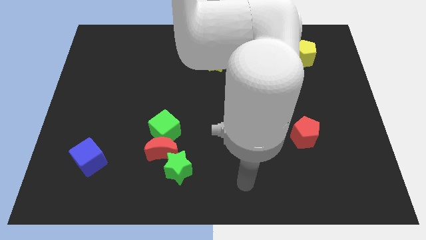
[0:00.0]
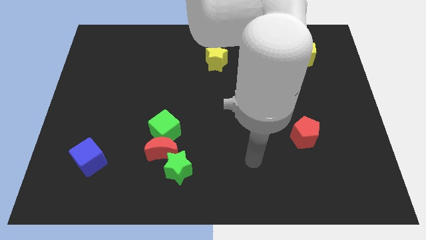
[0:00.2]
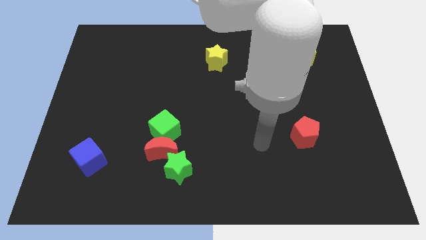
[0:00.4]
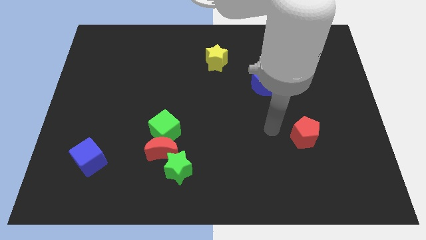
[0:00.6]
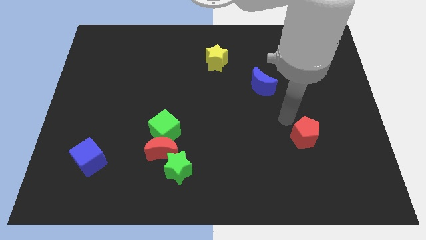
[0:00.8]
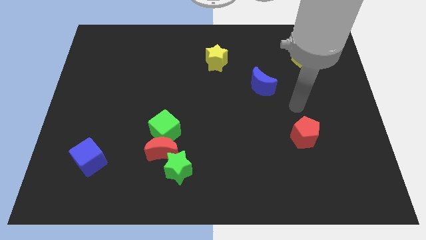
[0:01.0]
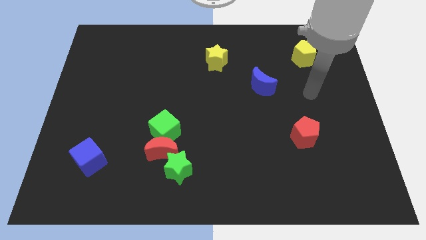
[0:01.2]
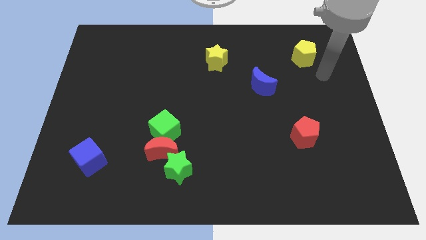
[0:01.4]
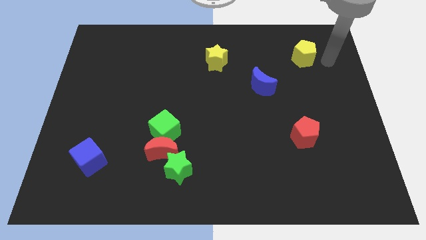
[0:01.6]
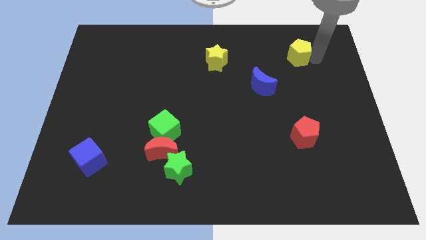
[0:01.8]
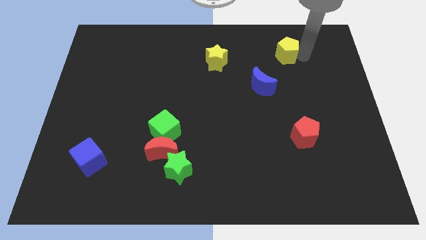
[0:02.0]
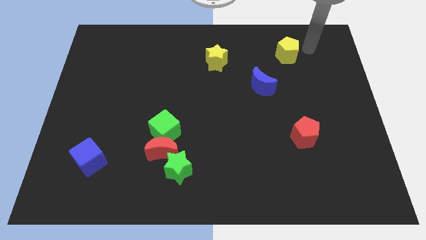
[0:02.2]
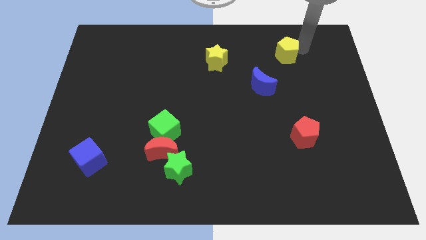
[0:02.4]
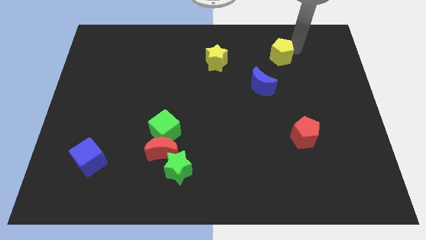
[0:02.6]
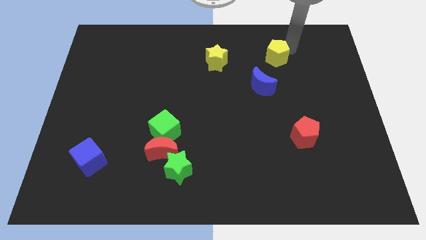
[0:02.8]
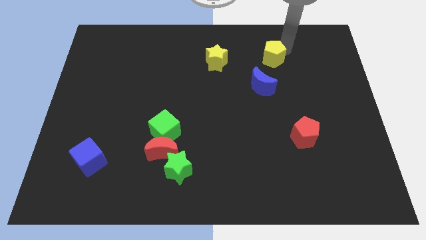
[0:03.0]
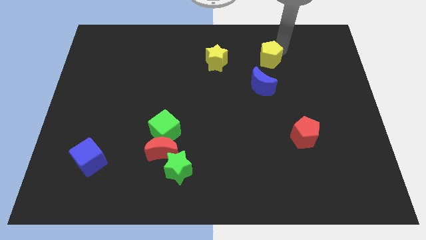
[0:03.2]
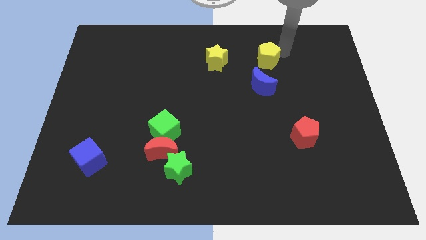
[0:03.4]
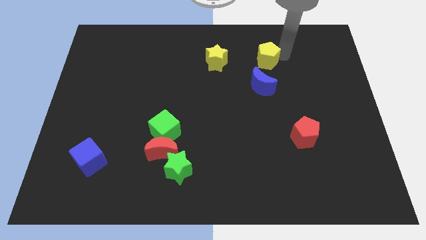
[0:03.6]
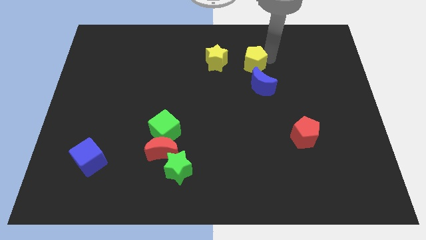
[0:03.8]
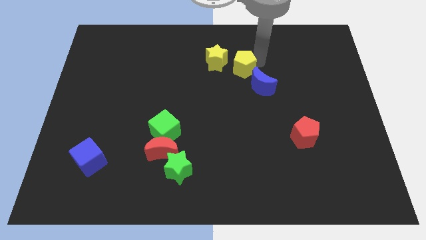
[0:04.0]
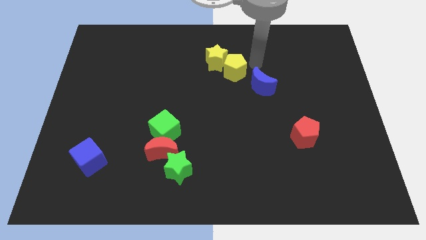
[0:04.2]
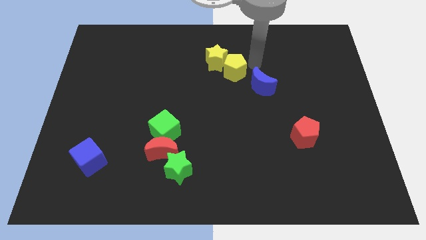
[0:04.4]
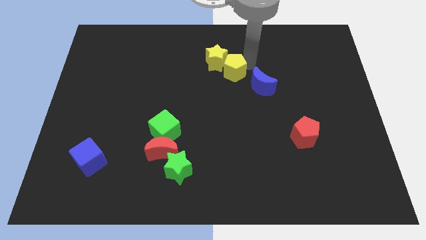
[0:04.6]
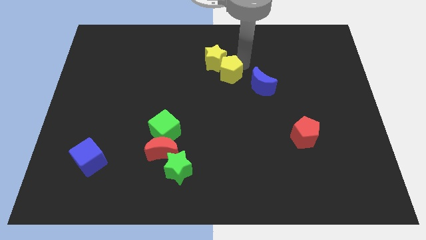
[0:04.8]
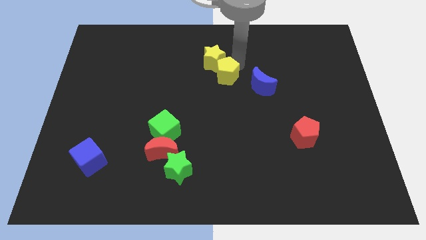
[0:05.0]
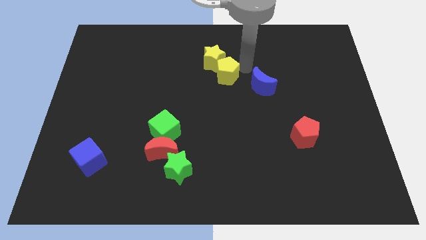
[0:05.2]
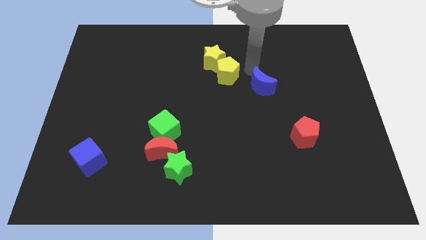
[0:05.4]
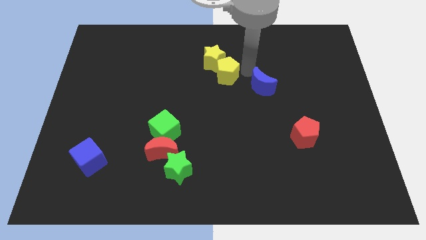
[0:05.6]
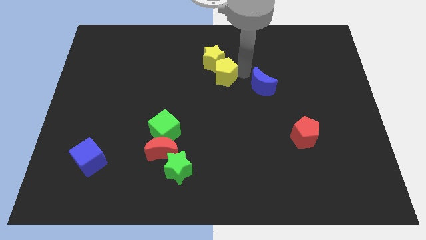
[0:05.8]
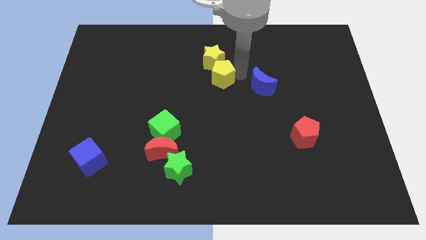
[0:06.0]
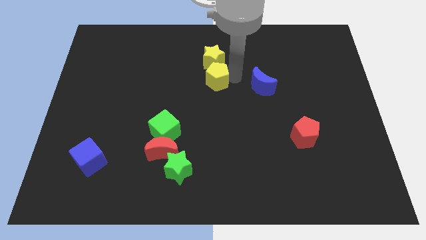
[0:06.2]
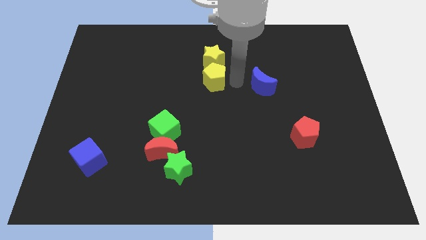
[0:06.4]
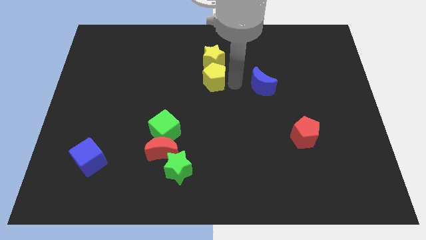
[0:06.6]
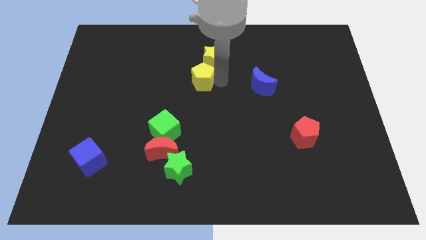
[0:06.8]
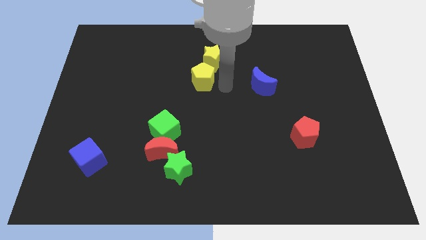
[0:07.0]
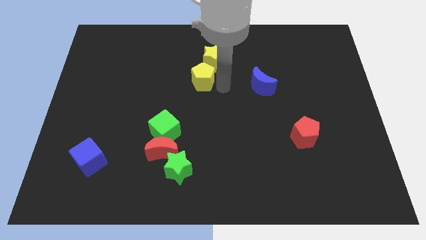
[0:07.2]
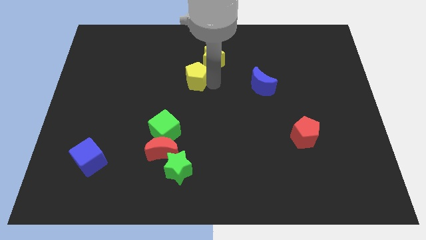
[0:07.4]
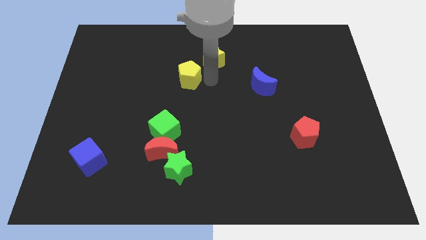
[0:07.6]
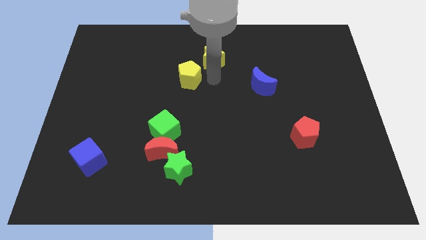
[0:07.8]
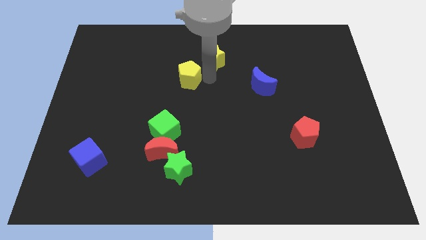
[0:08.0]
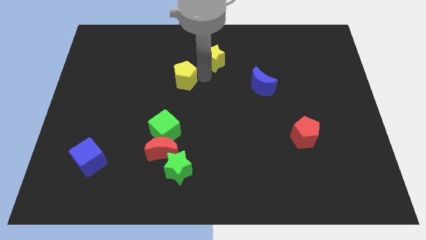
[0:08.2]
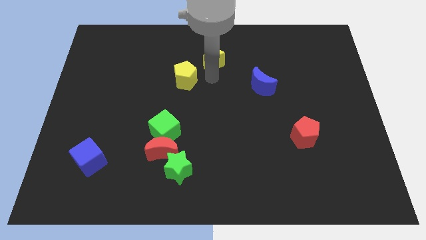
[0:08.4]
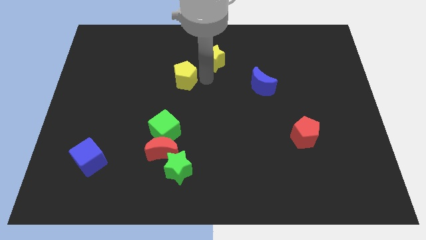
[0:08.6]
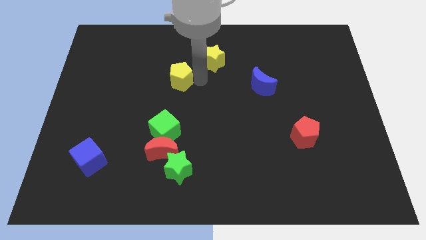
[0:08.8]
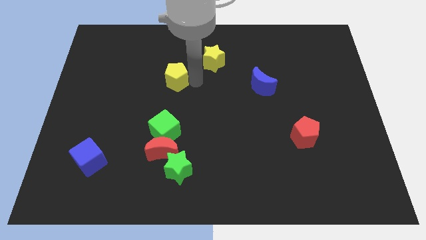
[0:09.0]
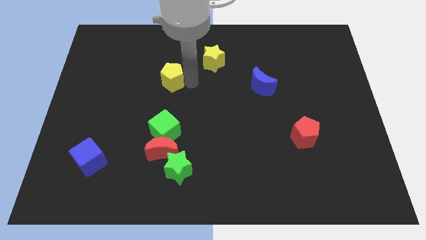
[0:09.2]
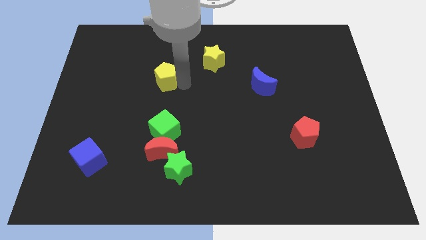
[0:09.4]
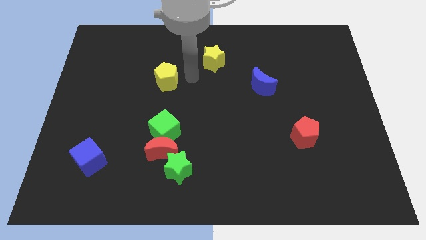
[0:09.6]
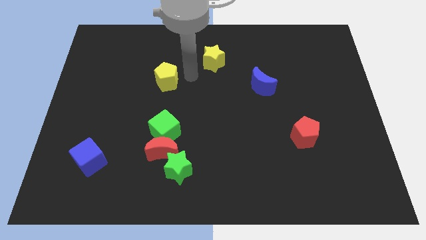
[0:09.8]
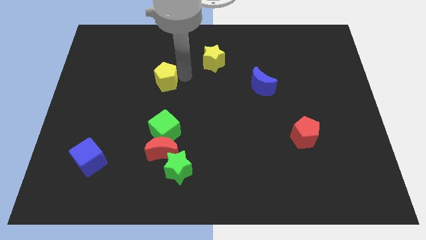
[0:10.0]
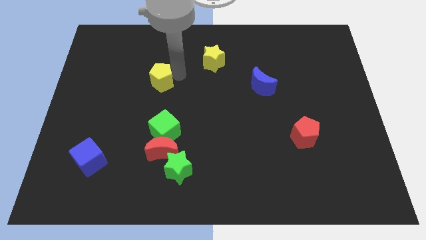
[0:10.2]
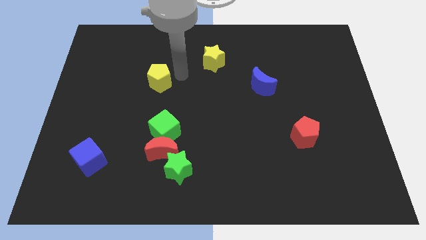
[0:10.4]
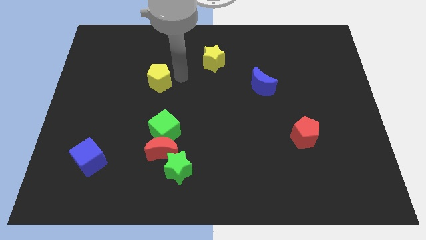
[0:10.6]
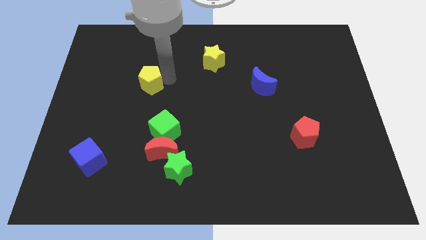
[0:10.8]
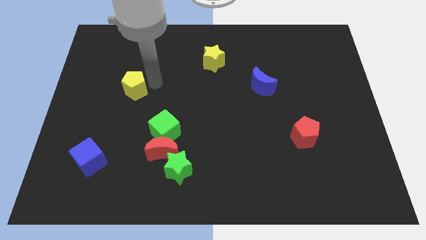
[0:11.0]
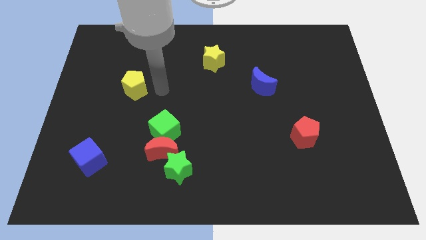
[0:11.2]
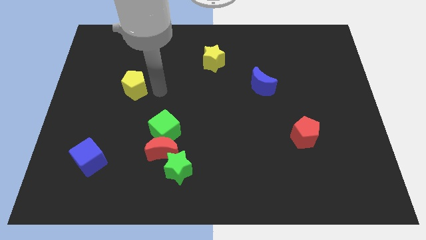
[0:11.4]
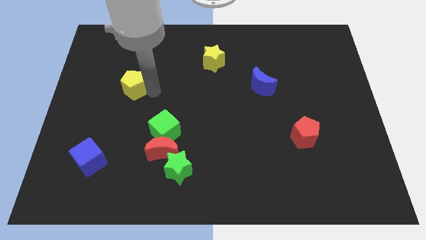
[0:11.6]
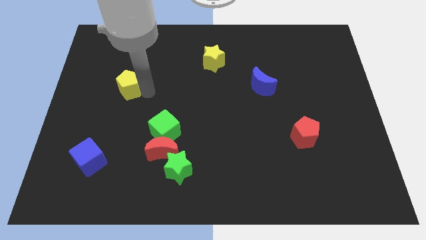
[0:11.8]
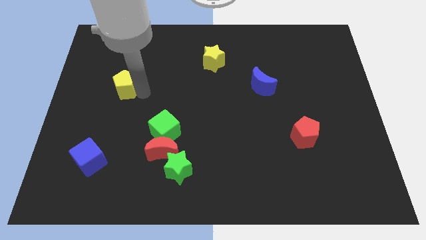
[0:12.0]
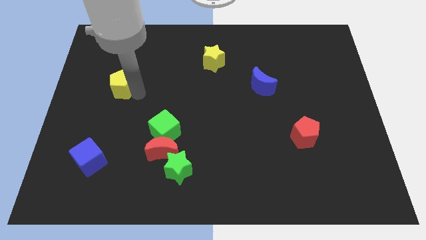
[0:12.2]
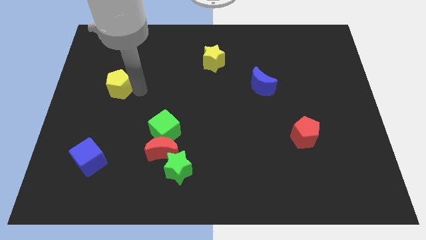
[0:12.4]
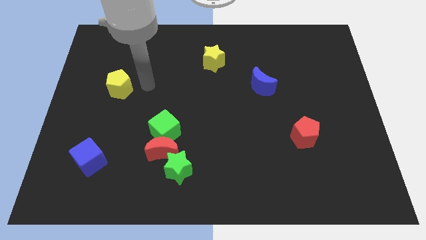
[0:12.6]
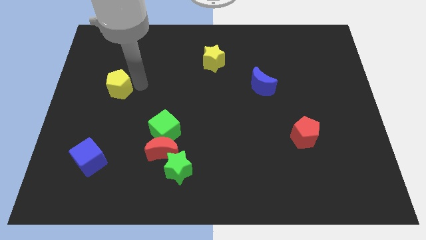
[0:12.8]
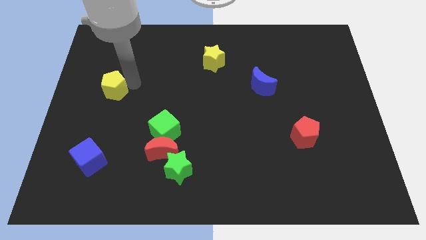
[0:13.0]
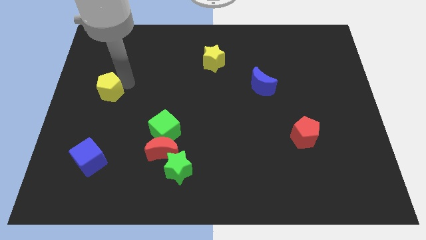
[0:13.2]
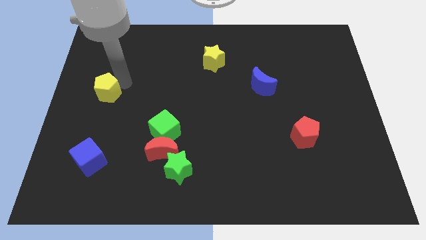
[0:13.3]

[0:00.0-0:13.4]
slide the yellow pentagon to the left side of the board
